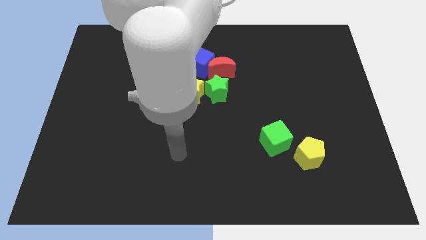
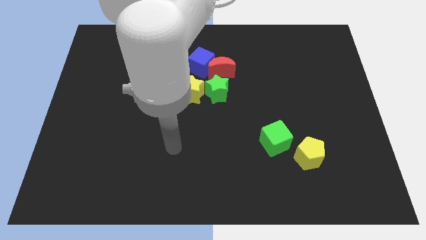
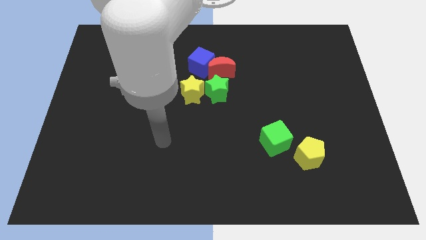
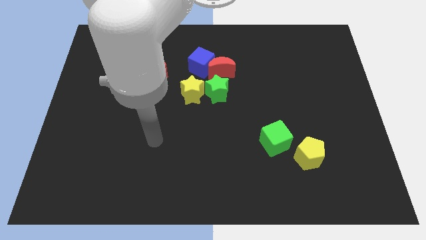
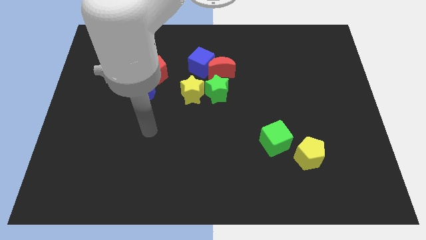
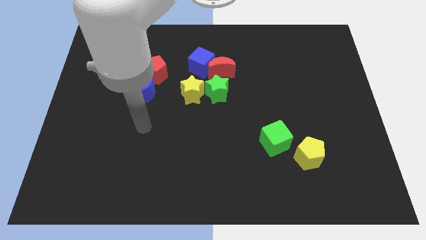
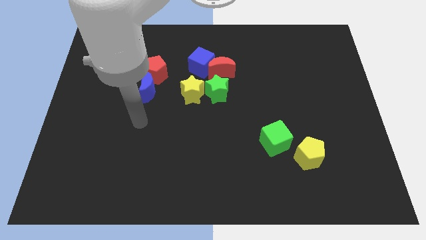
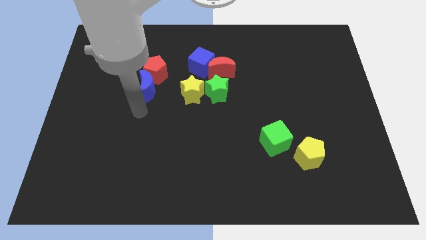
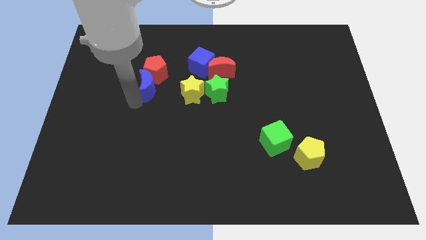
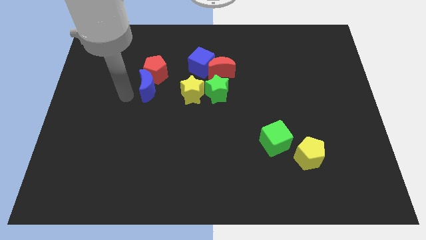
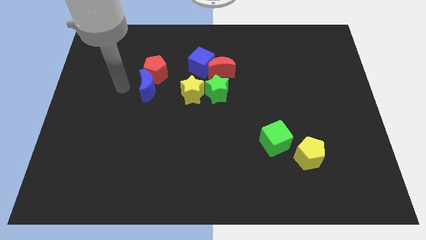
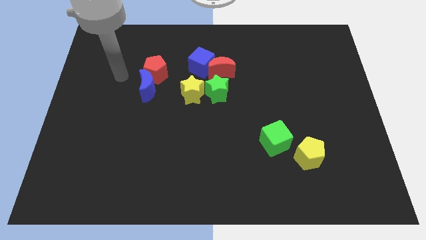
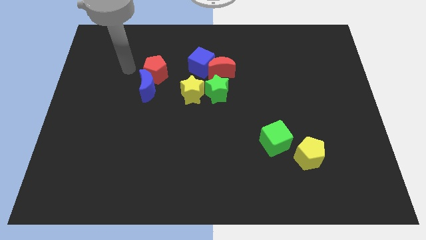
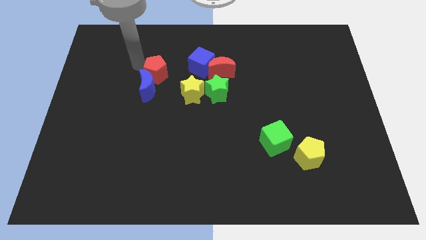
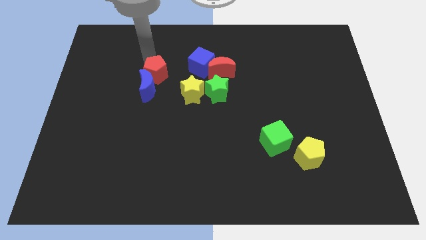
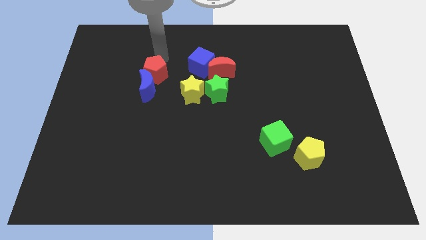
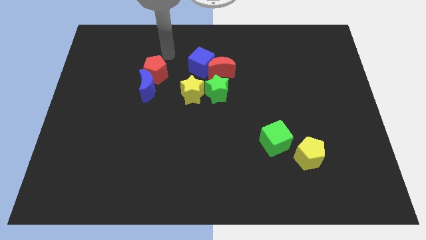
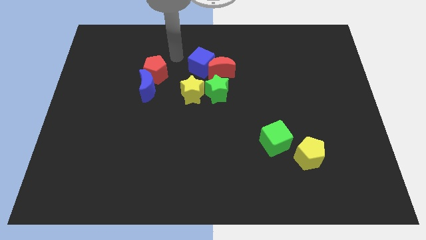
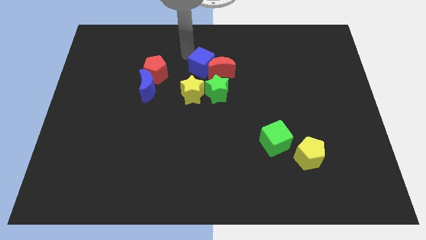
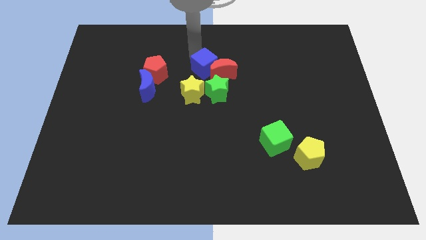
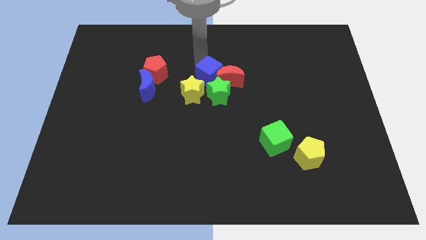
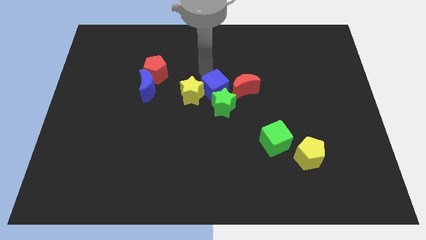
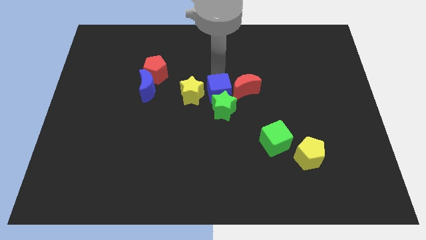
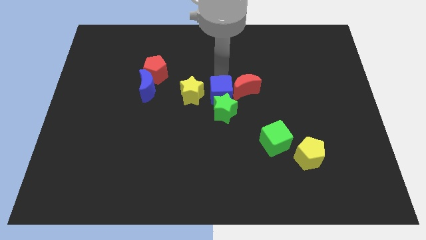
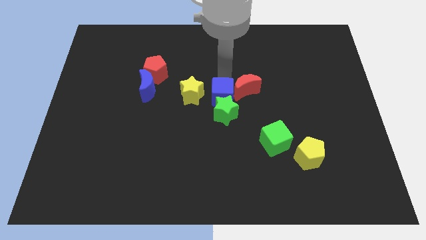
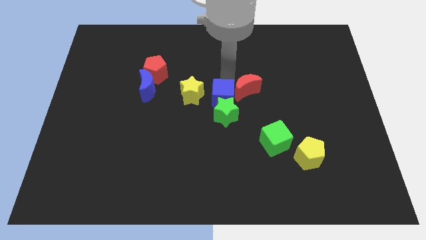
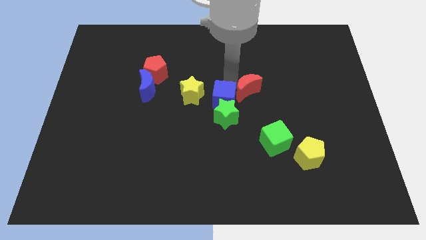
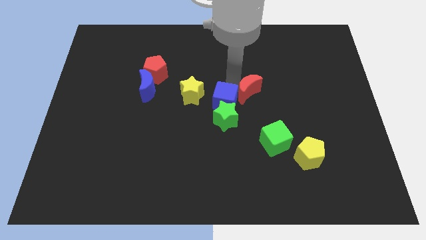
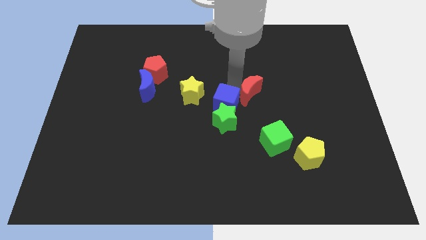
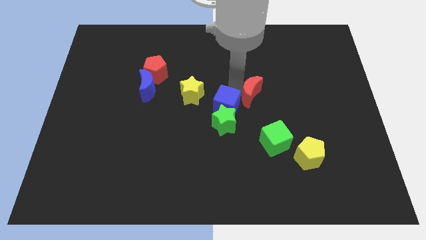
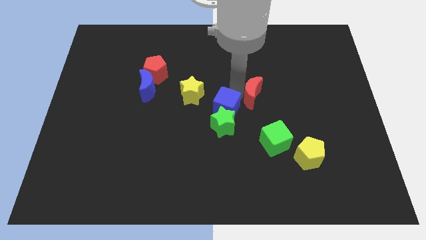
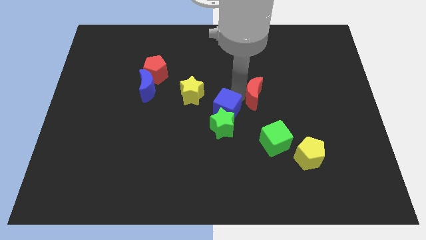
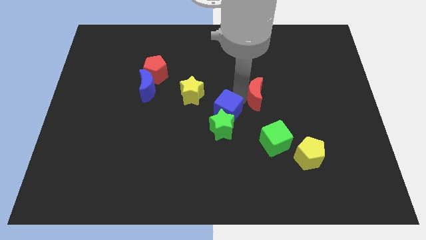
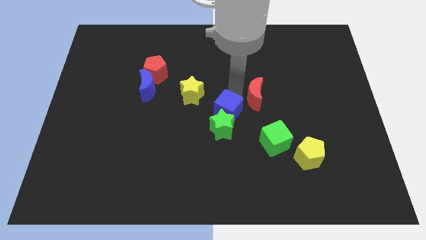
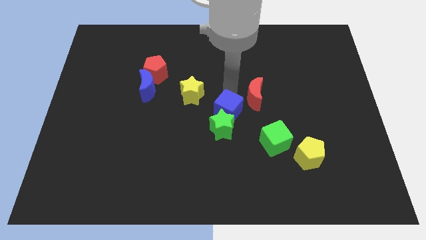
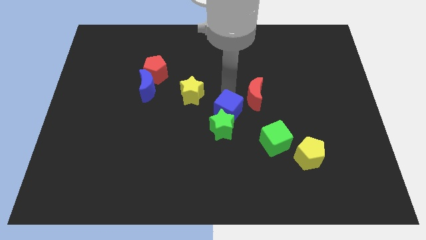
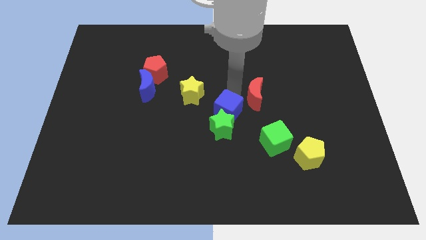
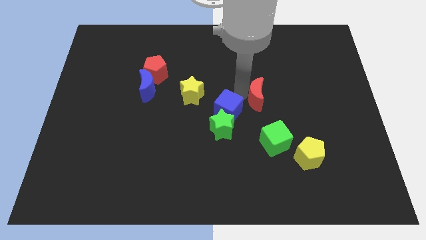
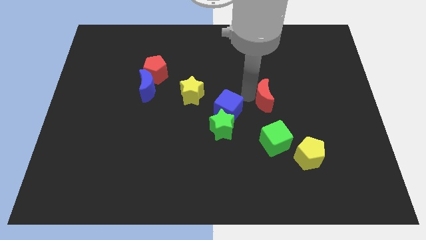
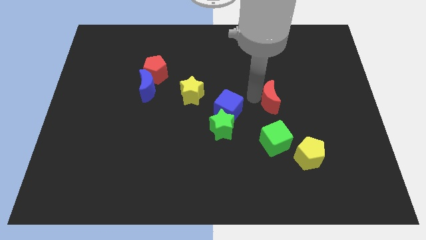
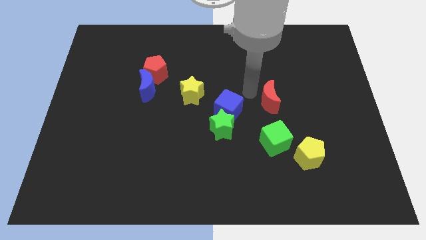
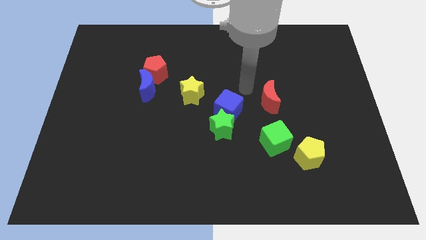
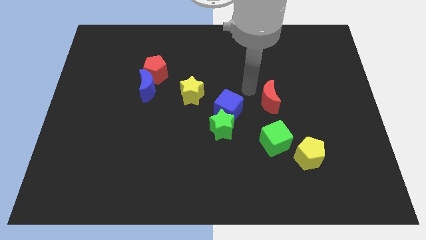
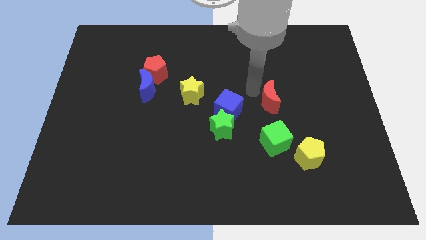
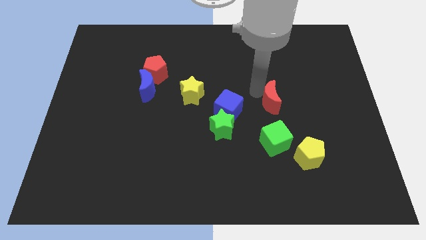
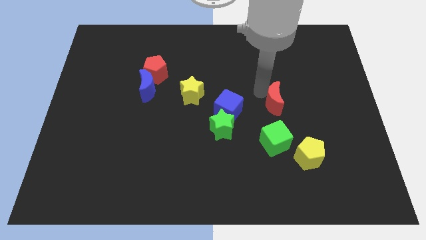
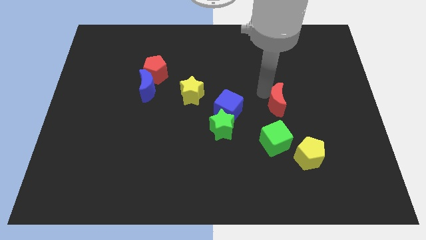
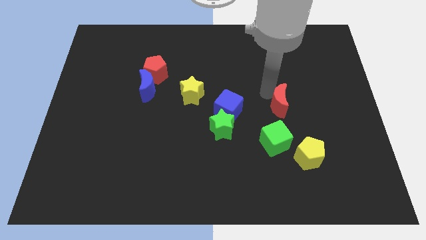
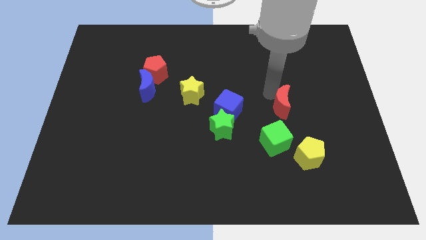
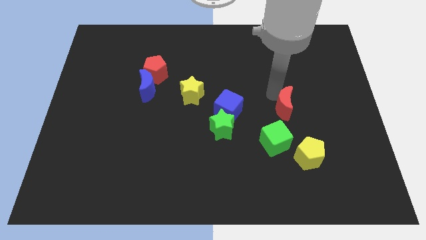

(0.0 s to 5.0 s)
put the red moon to the top side of the yellow pentagon

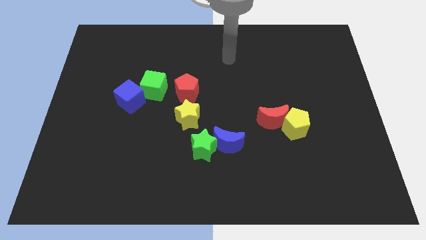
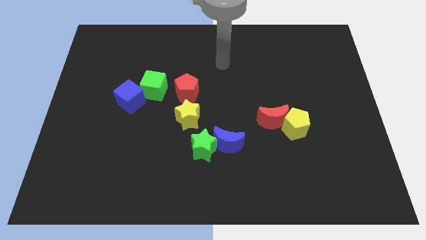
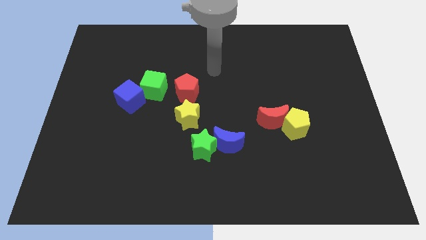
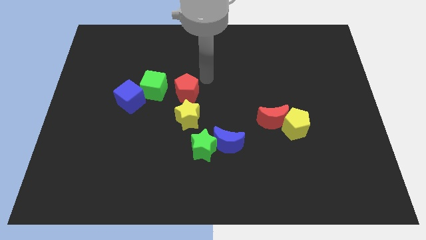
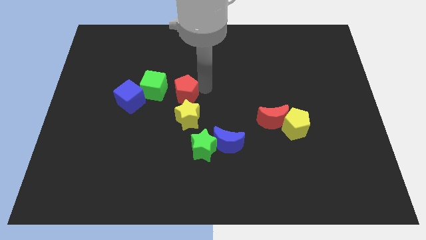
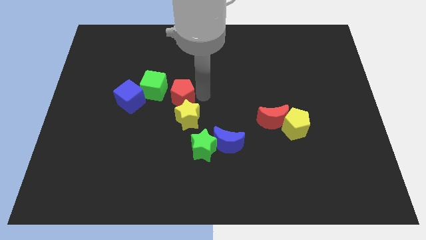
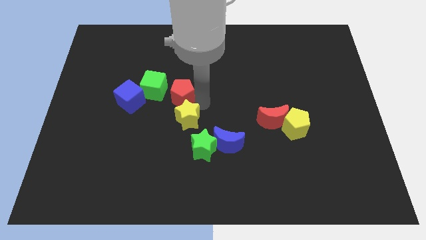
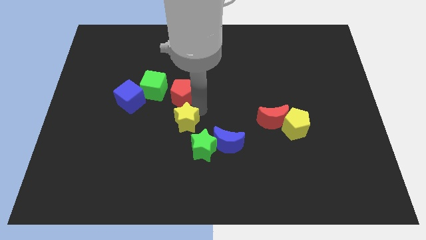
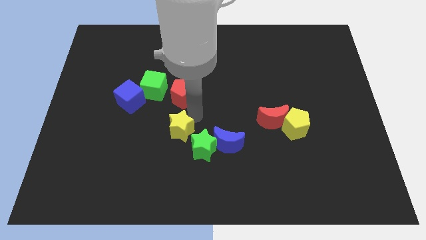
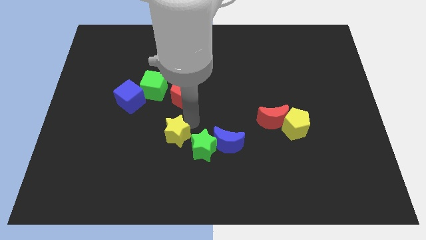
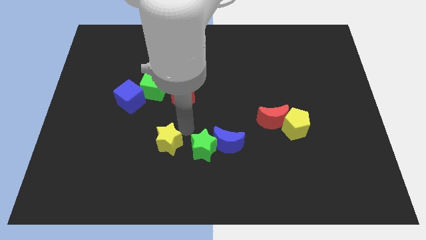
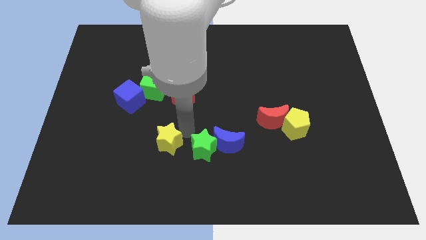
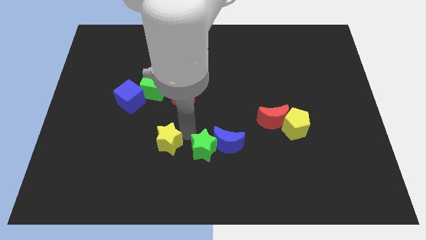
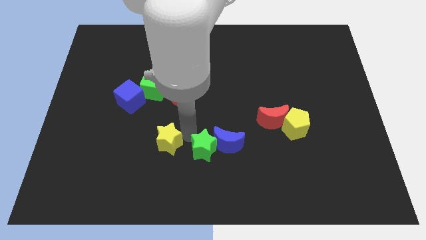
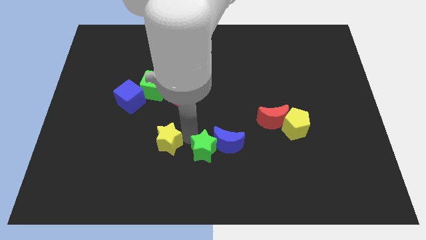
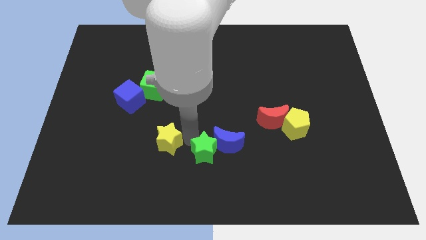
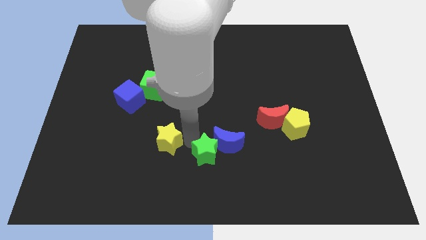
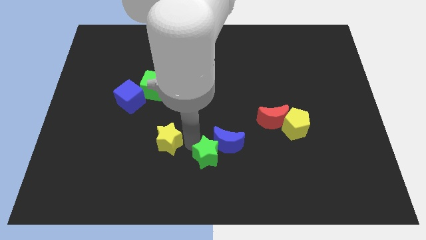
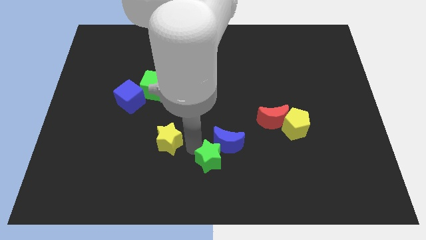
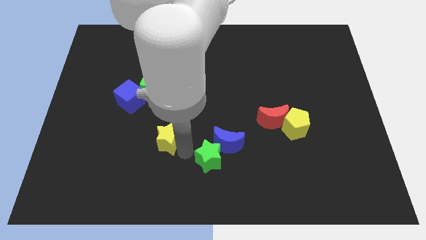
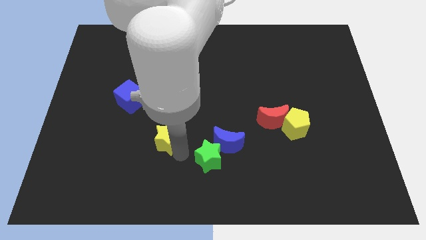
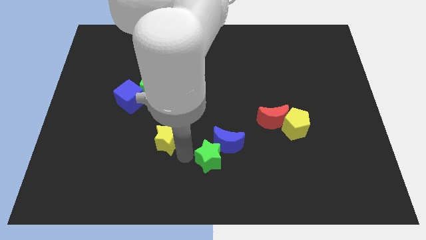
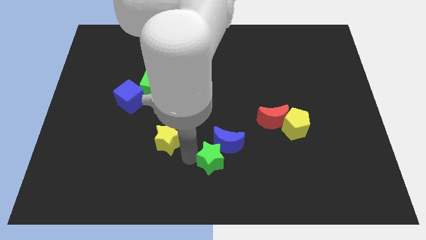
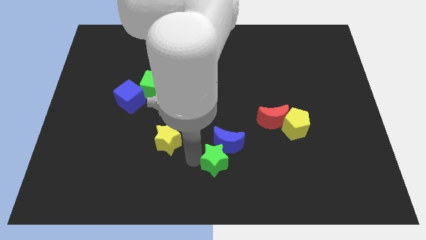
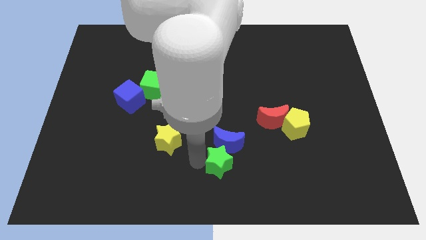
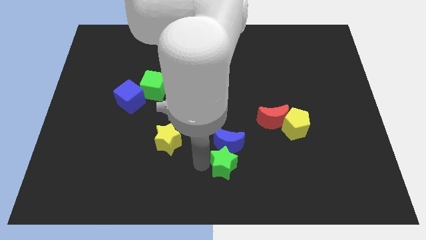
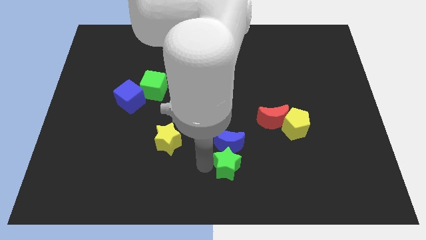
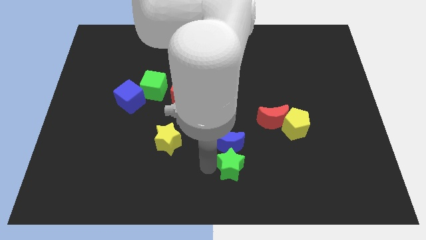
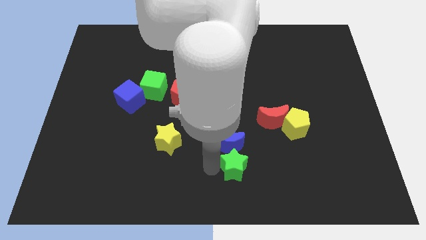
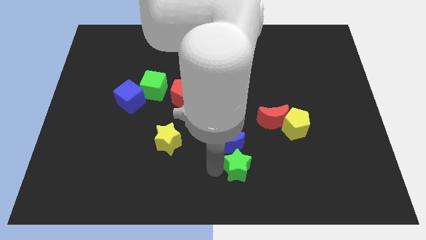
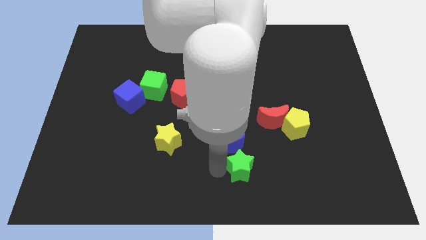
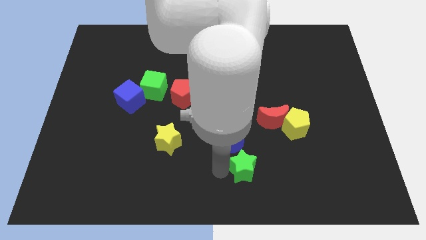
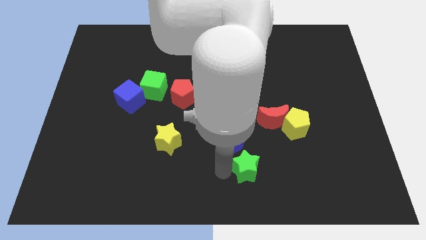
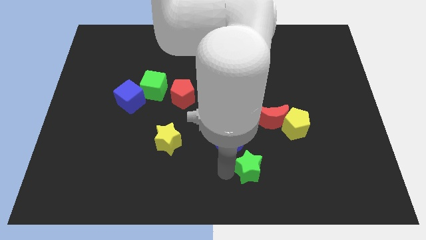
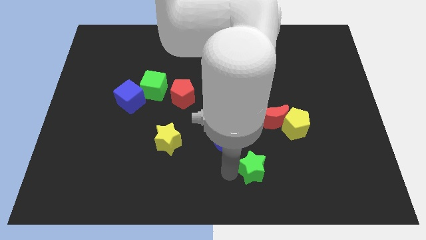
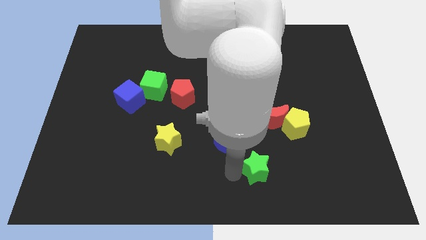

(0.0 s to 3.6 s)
push the green star to the bottom side of the red moon
